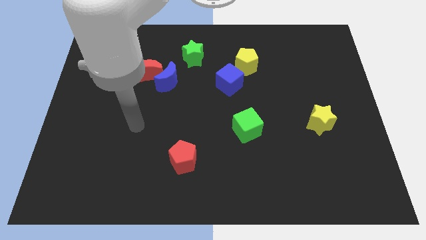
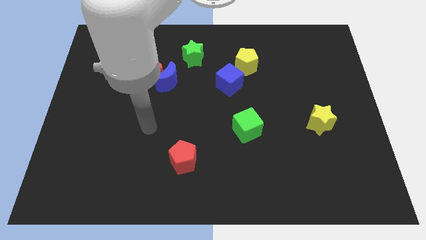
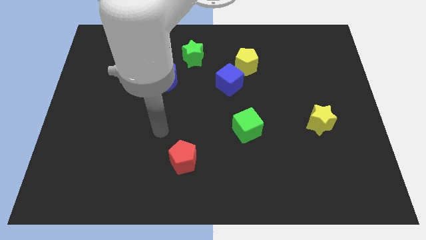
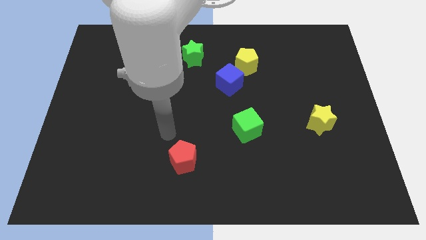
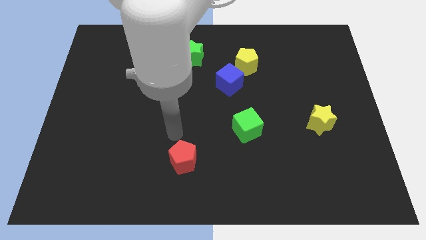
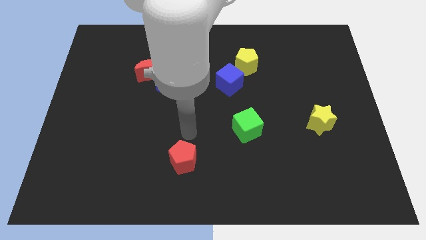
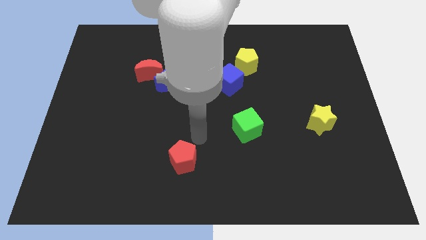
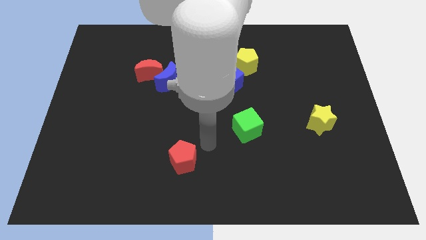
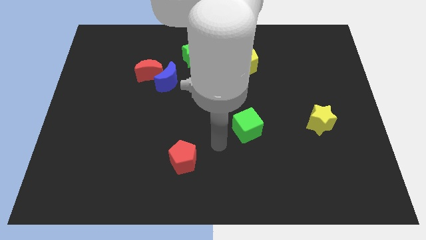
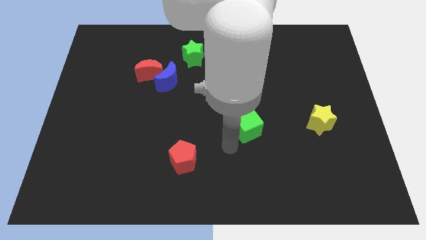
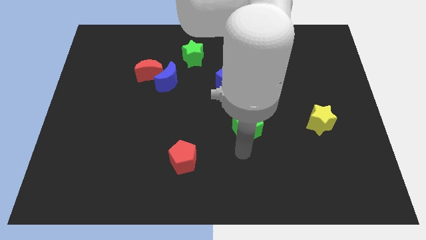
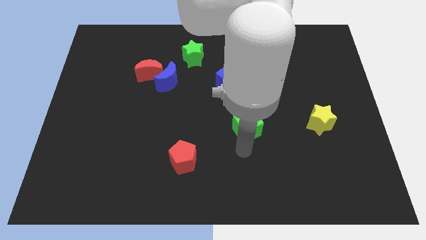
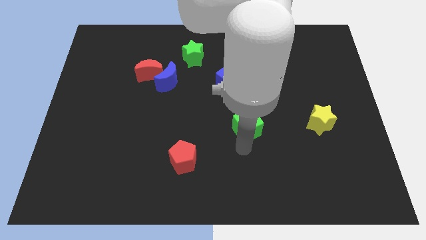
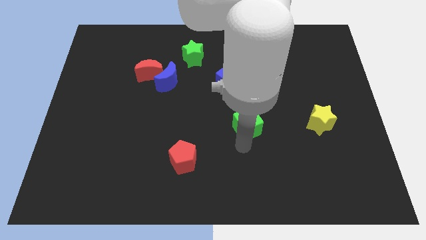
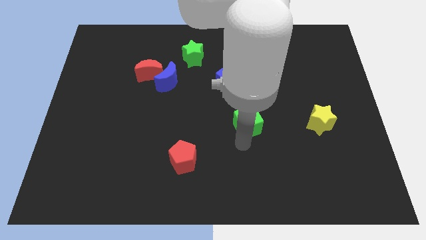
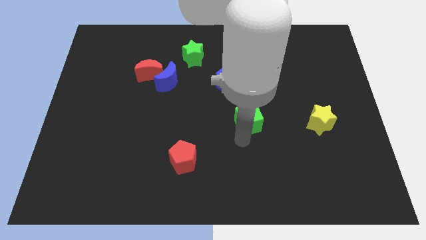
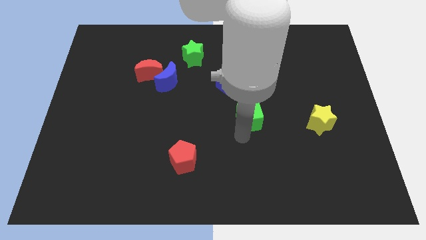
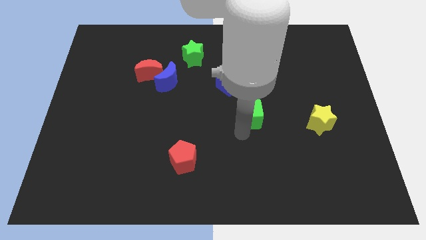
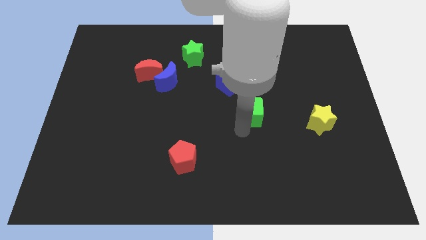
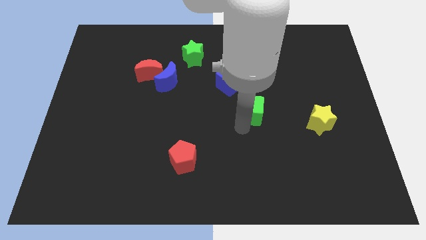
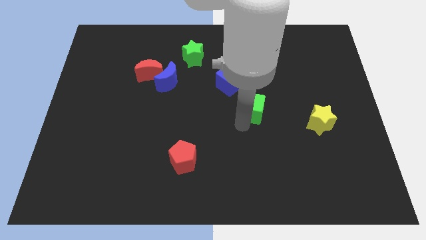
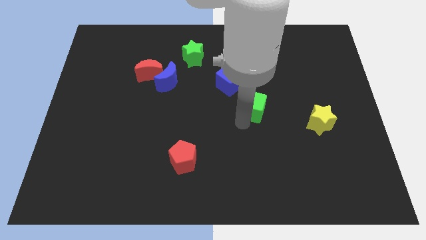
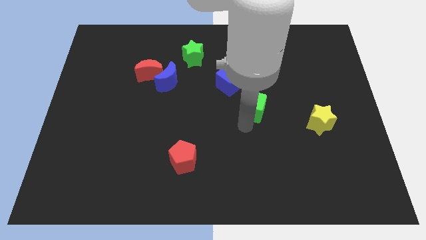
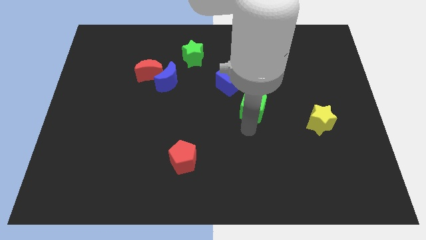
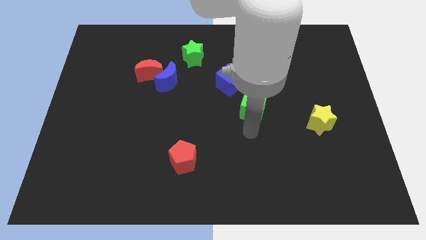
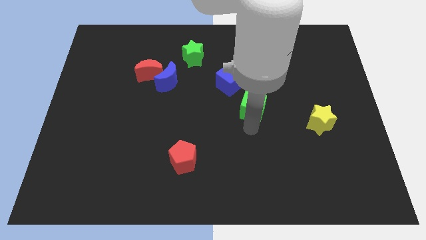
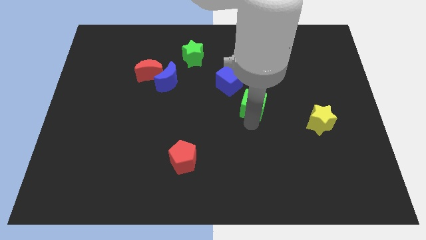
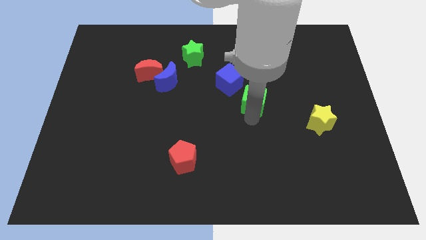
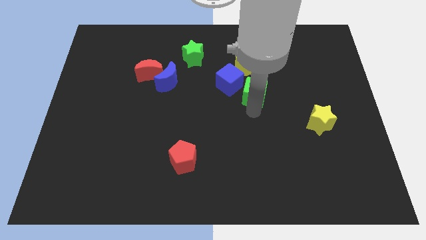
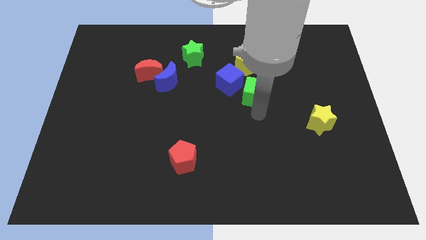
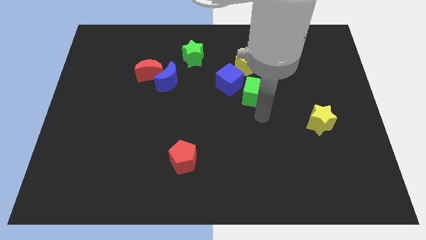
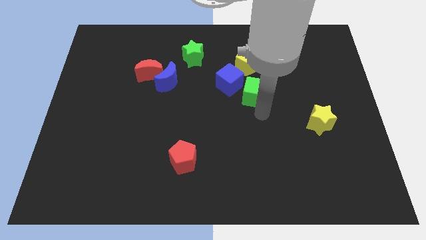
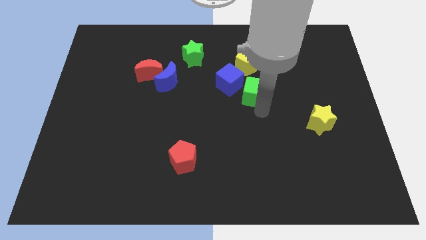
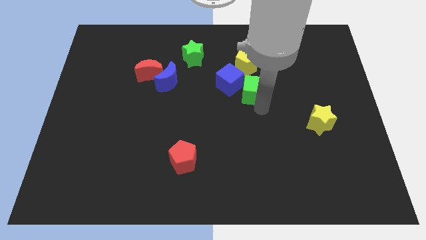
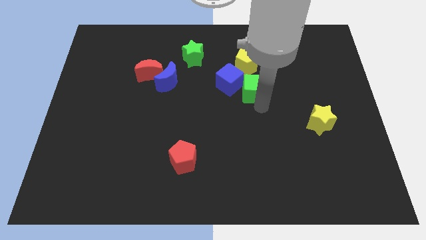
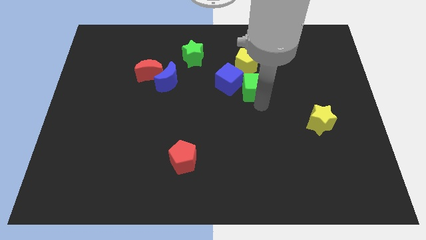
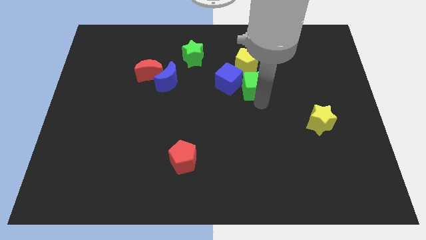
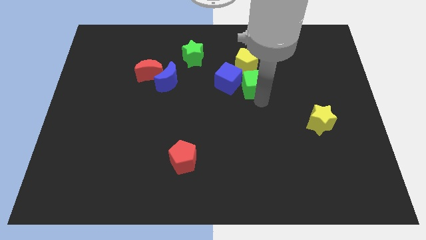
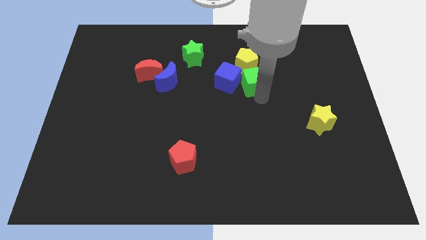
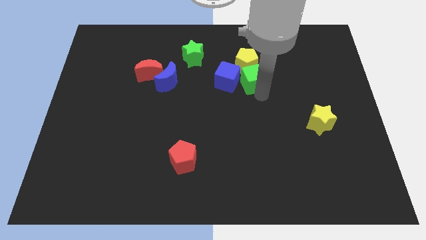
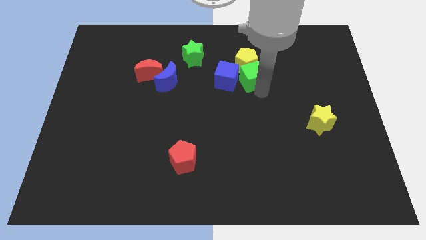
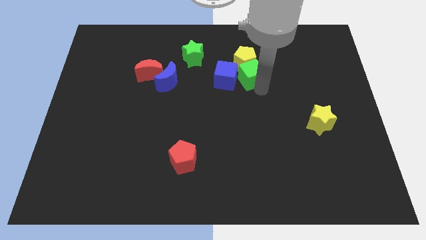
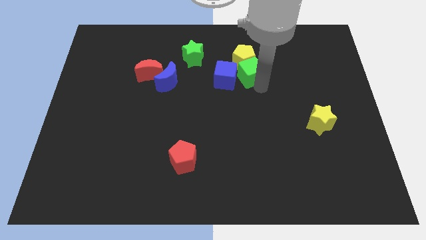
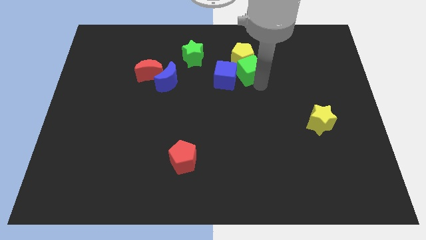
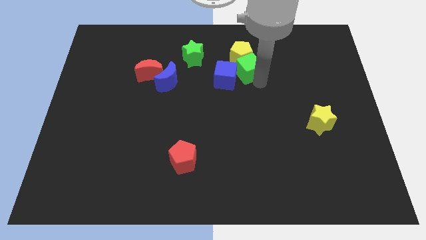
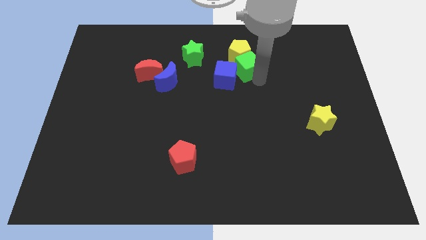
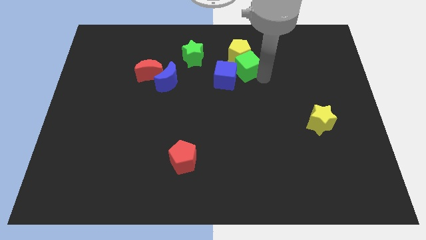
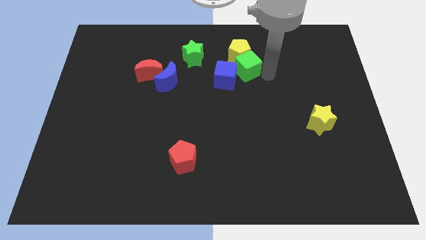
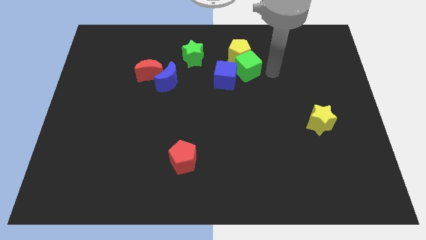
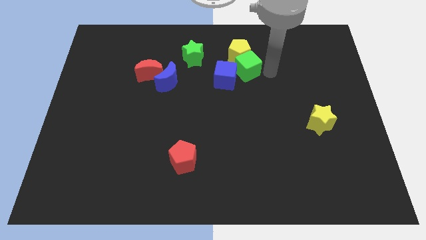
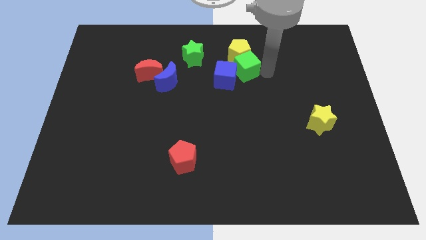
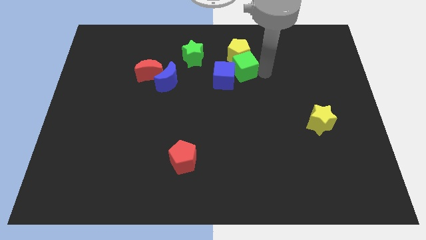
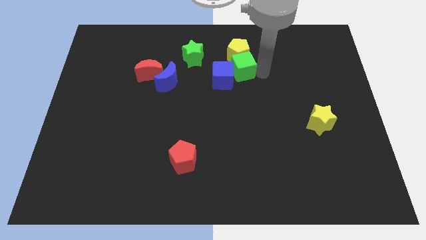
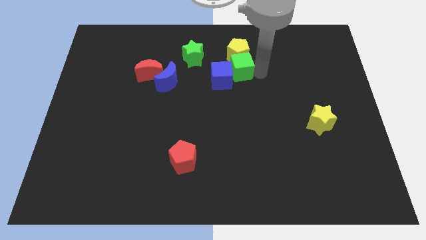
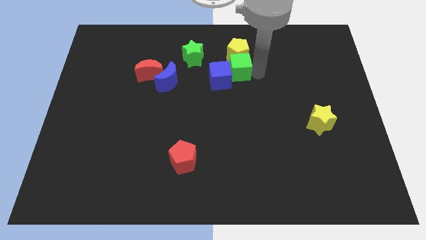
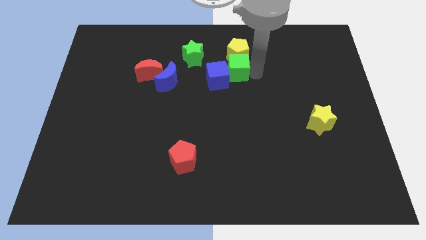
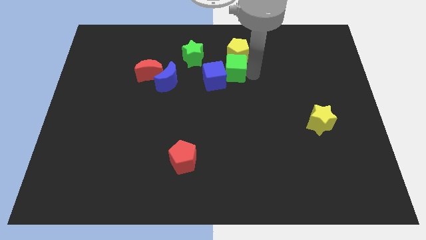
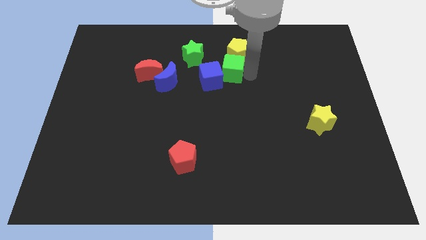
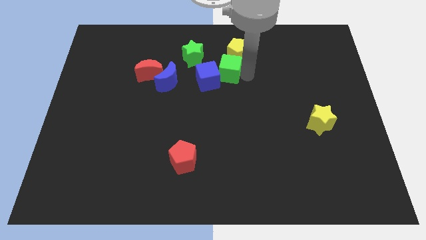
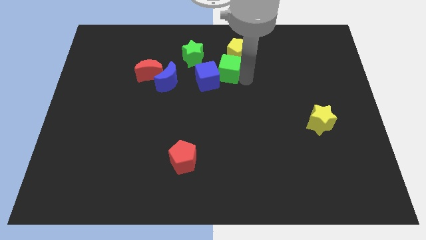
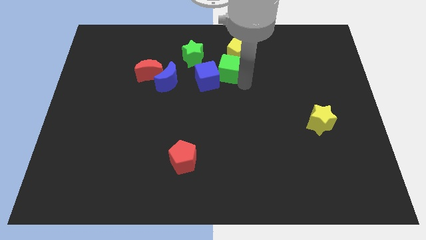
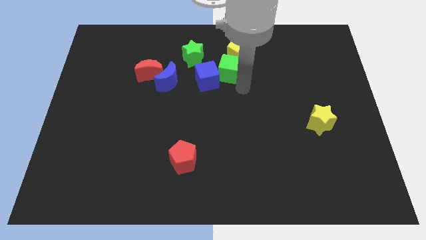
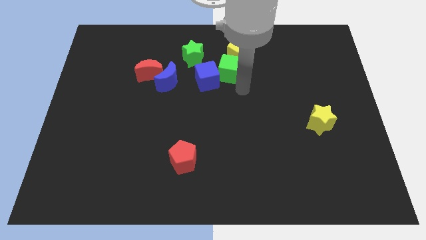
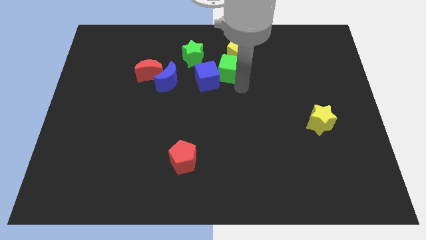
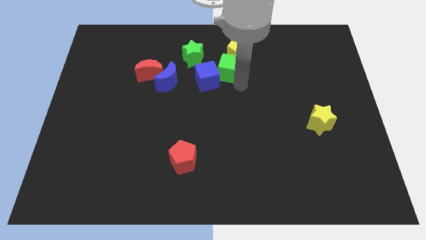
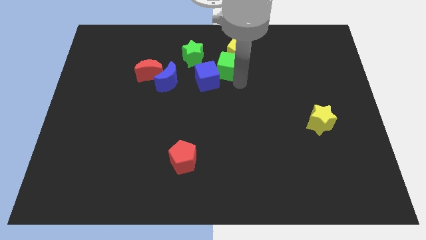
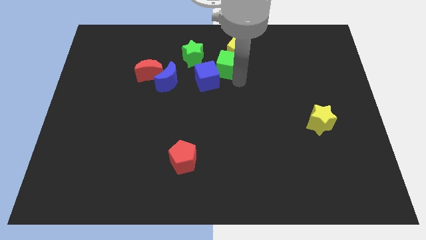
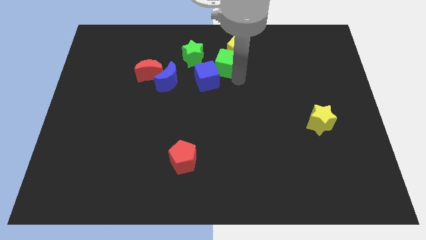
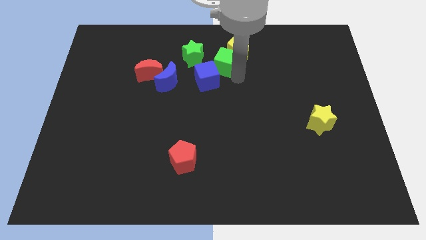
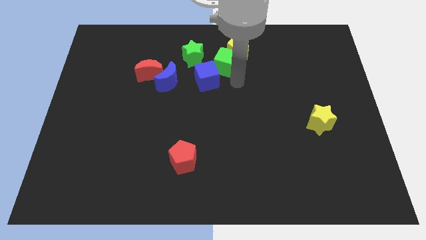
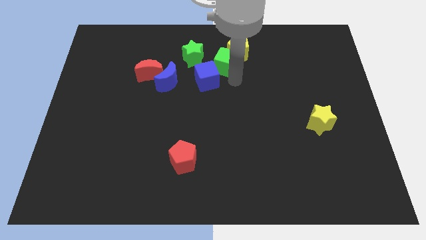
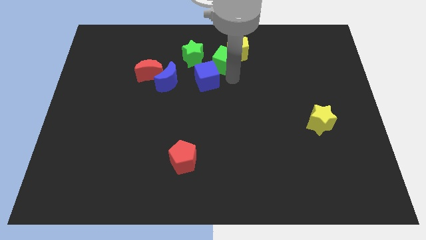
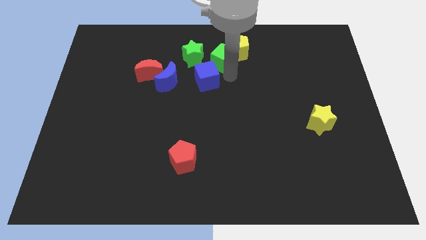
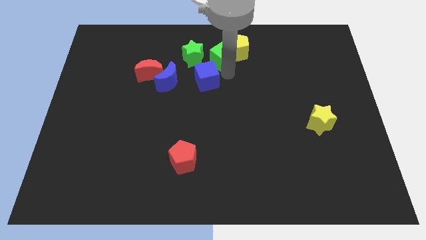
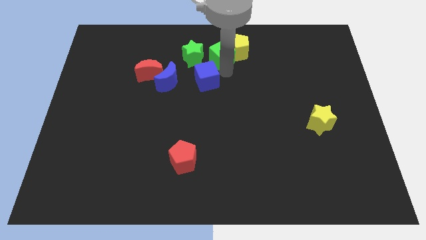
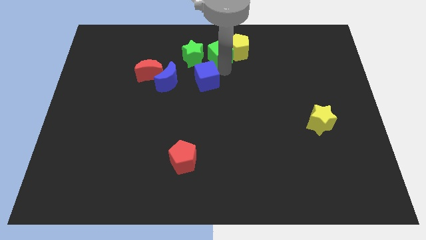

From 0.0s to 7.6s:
put the green cube to the top

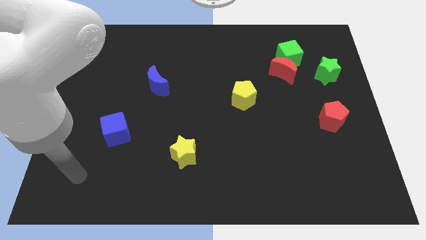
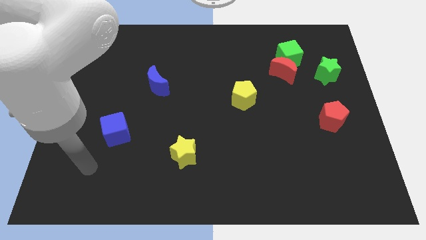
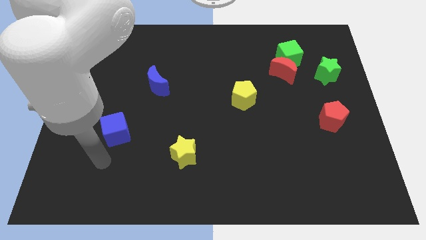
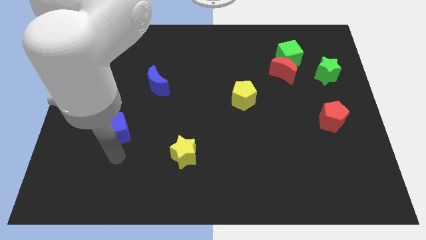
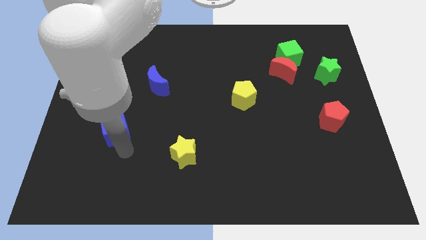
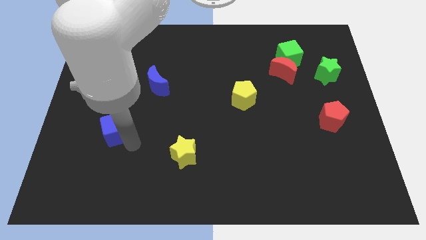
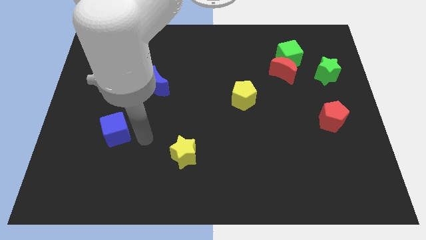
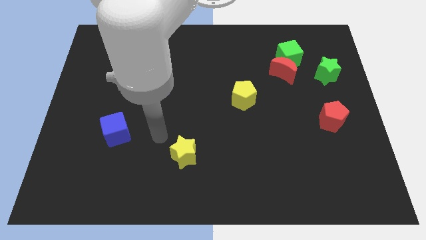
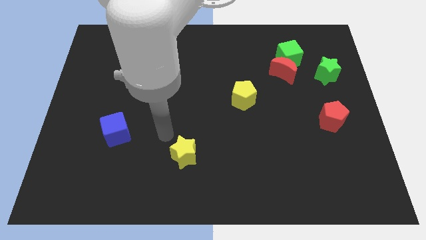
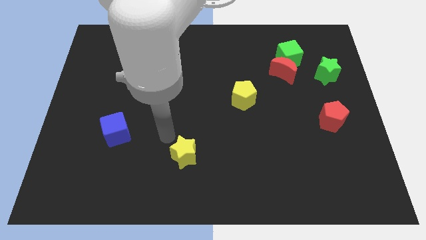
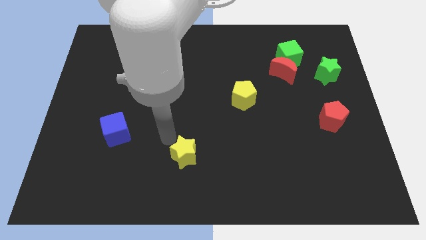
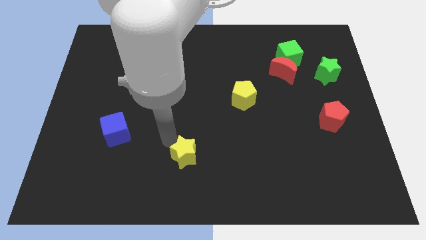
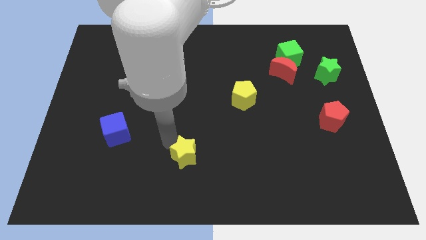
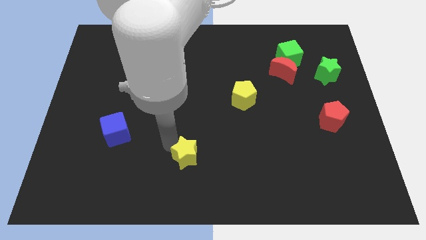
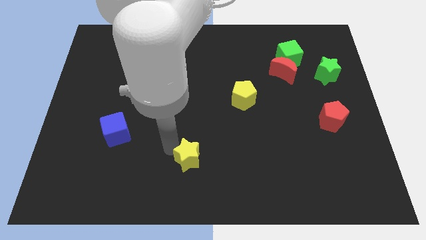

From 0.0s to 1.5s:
slide the yellow star to the bottom side
